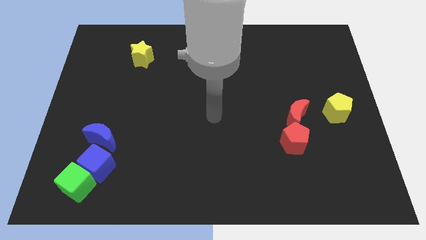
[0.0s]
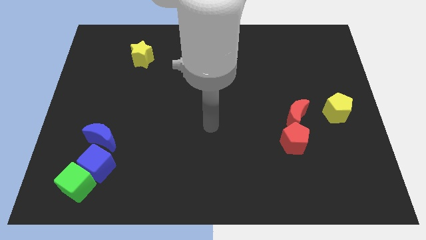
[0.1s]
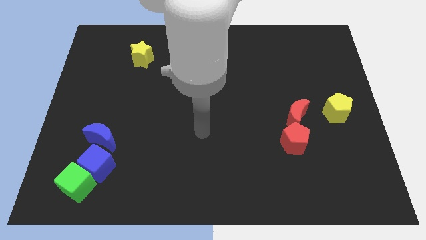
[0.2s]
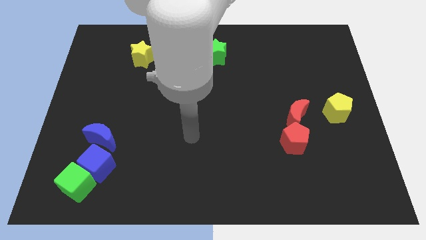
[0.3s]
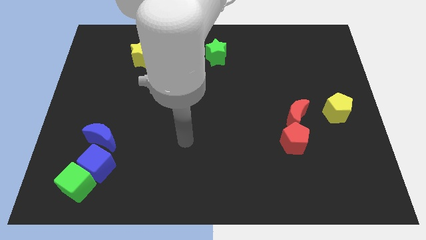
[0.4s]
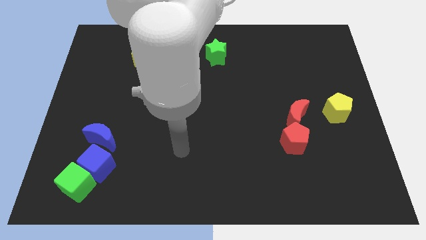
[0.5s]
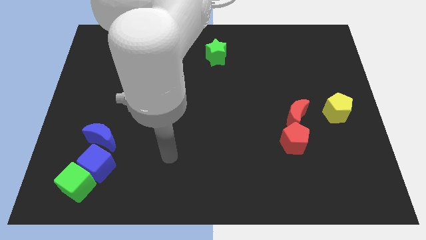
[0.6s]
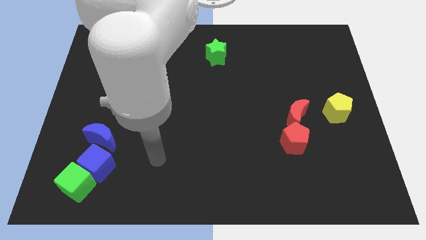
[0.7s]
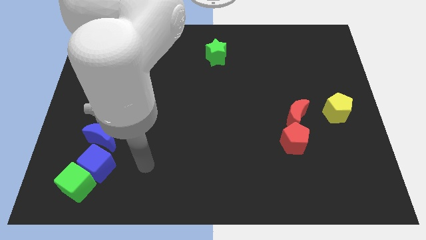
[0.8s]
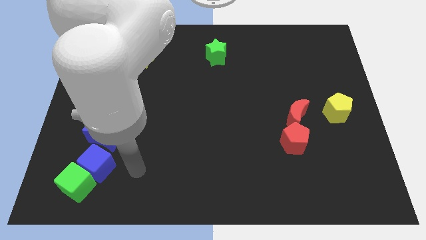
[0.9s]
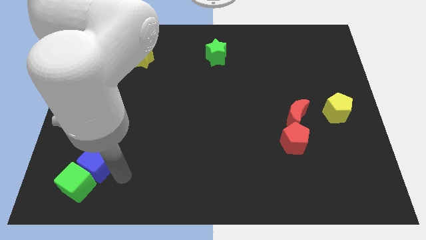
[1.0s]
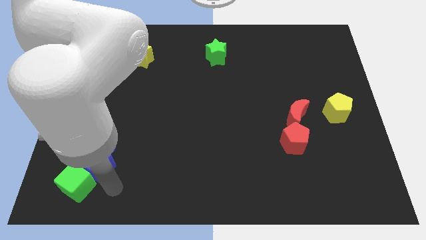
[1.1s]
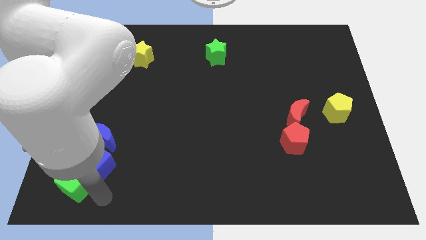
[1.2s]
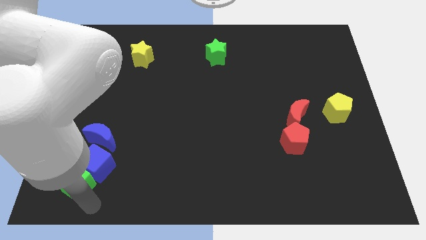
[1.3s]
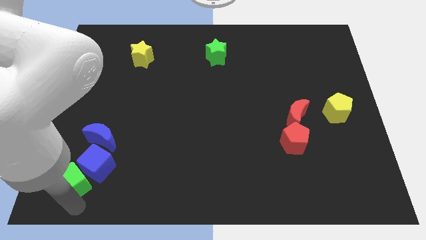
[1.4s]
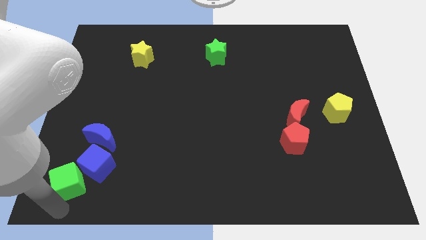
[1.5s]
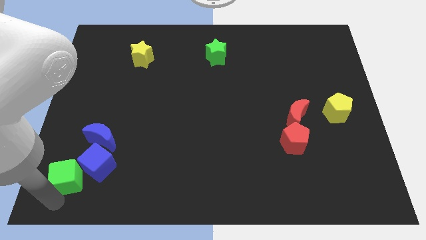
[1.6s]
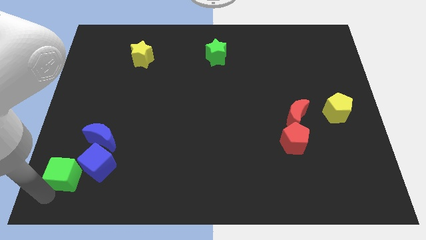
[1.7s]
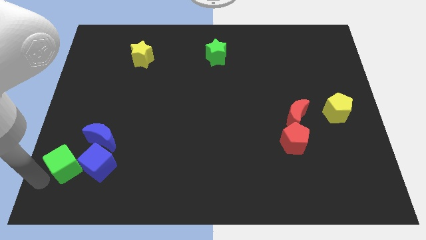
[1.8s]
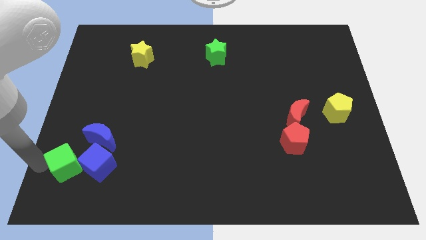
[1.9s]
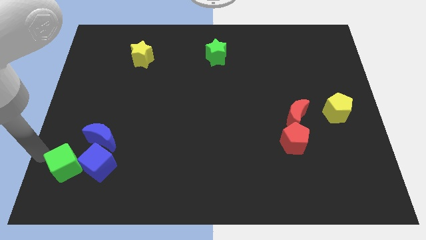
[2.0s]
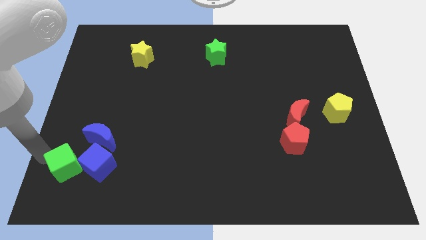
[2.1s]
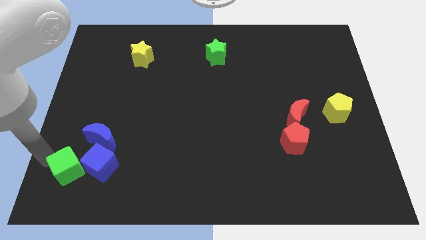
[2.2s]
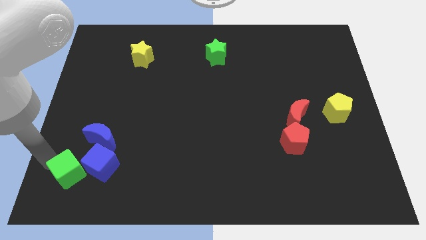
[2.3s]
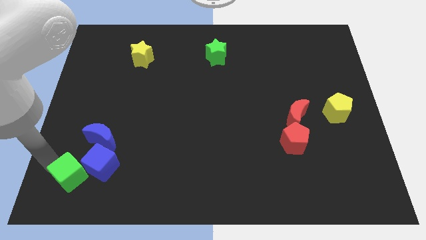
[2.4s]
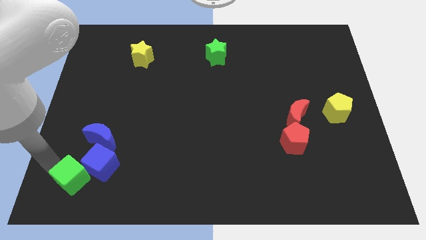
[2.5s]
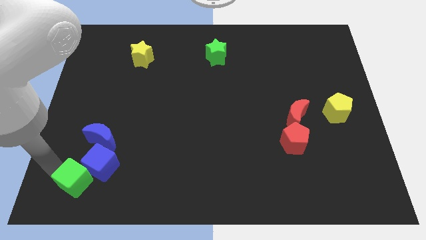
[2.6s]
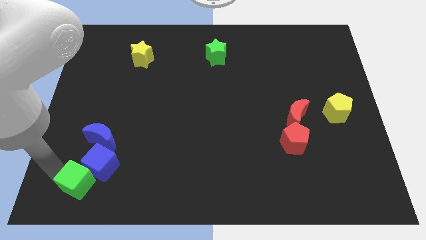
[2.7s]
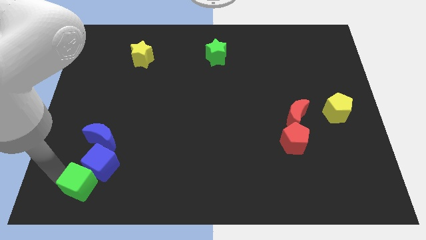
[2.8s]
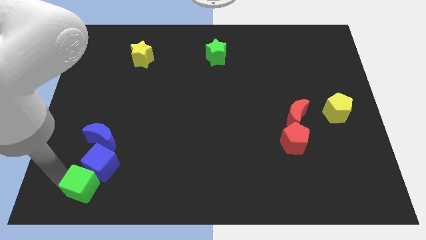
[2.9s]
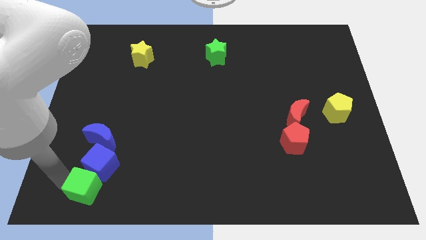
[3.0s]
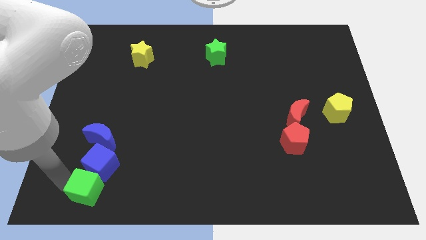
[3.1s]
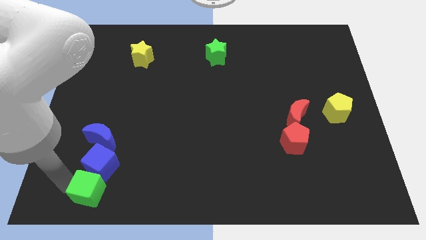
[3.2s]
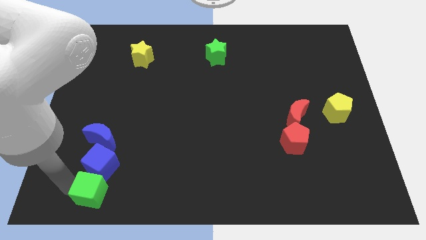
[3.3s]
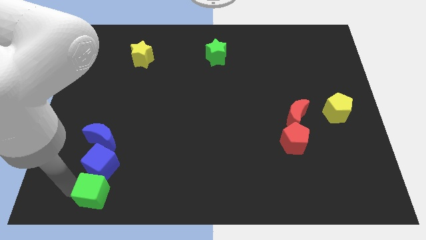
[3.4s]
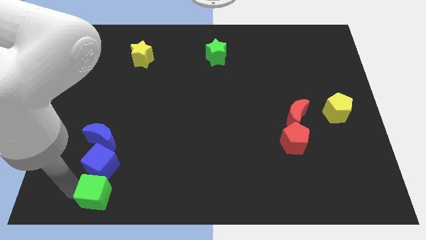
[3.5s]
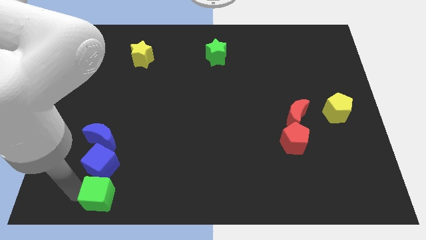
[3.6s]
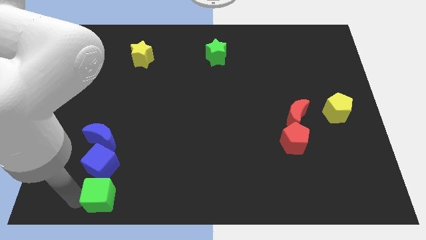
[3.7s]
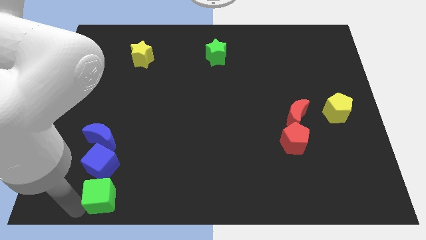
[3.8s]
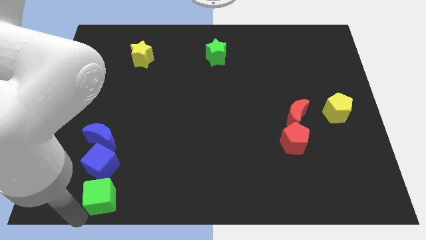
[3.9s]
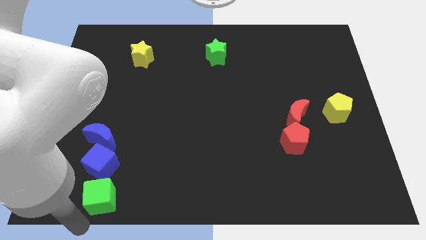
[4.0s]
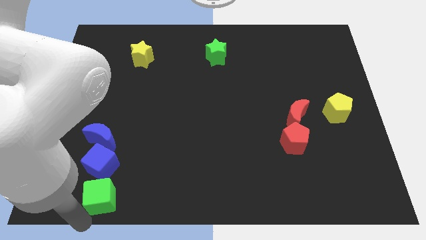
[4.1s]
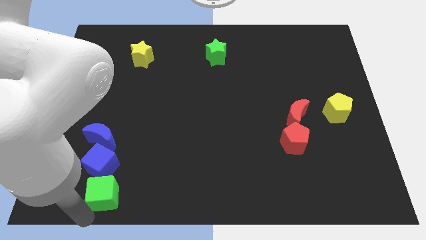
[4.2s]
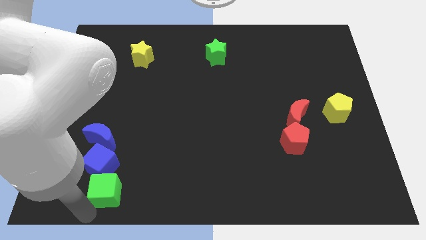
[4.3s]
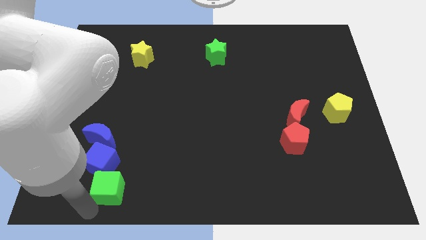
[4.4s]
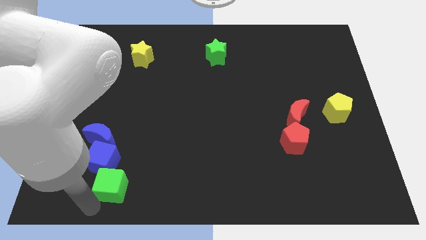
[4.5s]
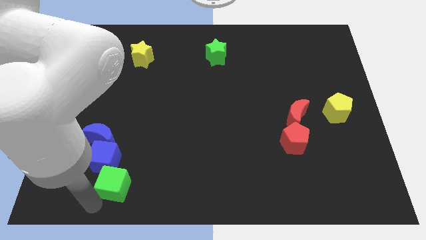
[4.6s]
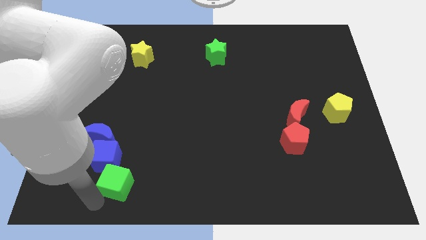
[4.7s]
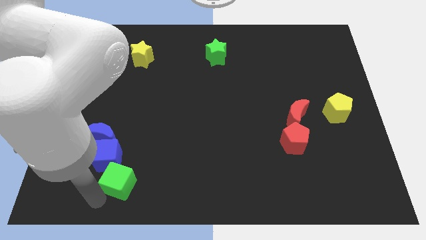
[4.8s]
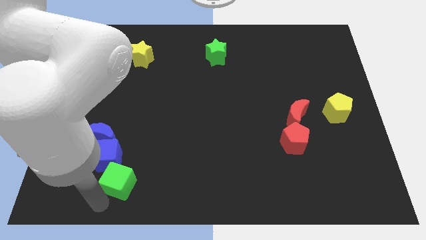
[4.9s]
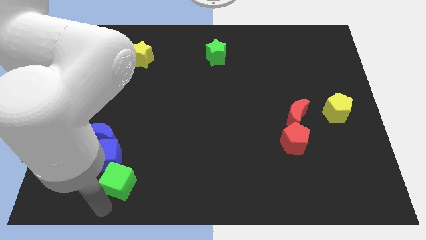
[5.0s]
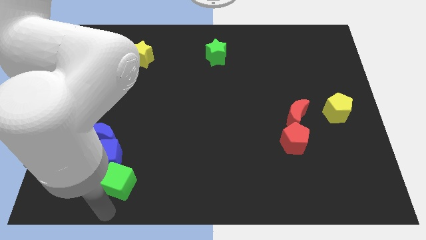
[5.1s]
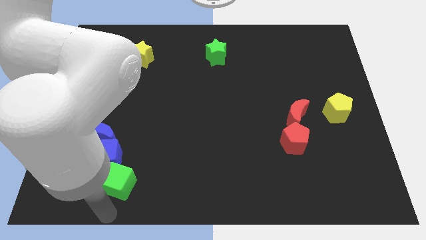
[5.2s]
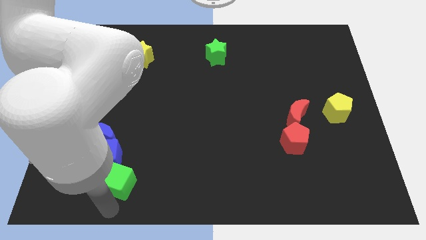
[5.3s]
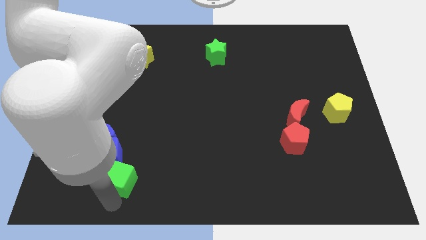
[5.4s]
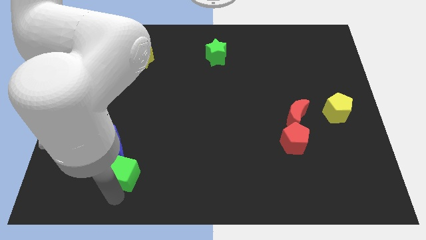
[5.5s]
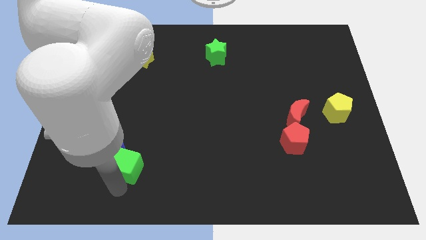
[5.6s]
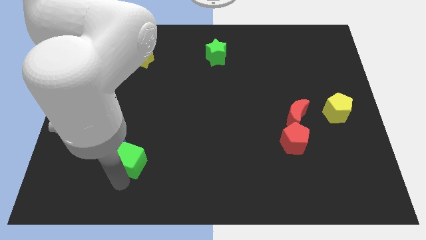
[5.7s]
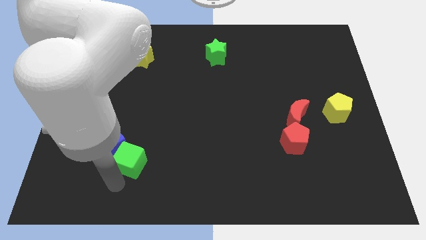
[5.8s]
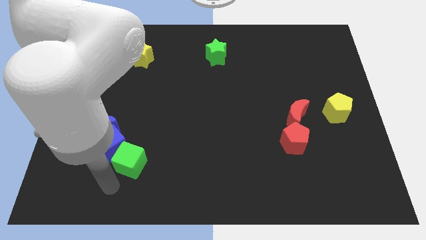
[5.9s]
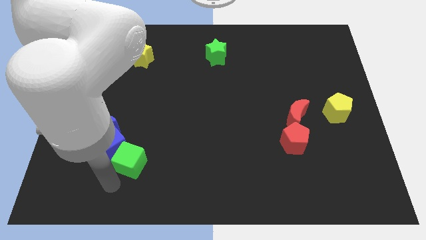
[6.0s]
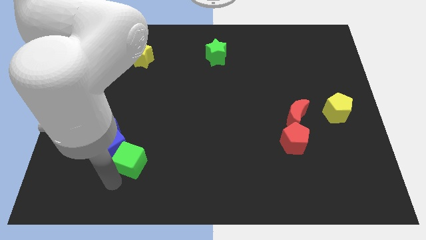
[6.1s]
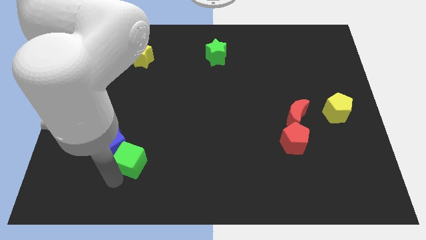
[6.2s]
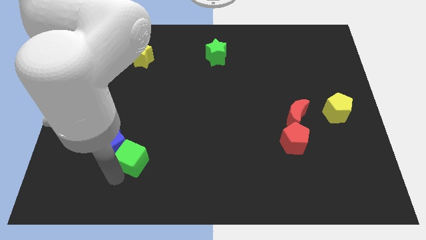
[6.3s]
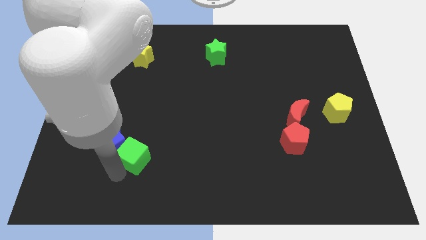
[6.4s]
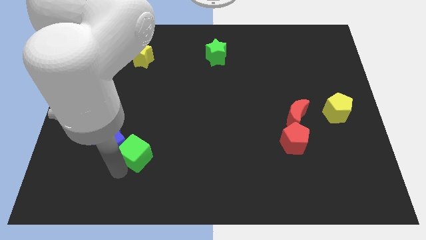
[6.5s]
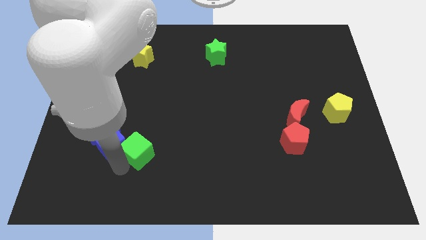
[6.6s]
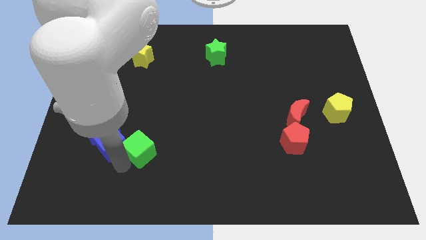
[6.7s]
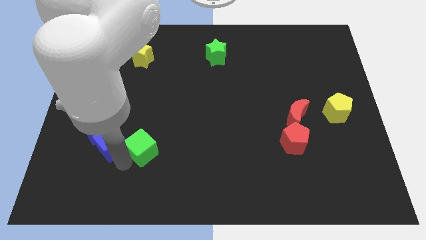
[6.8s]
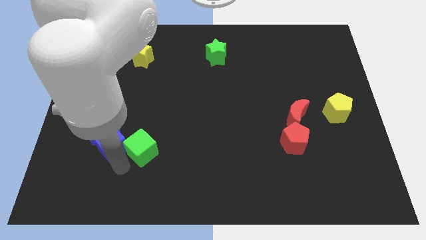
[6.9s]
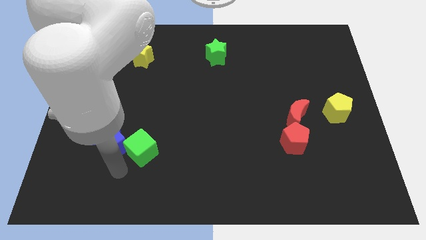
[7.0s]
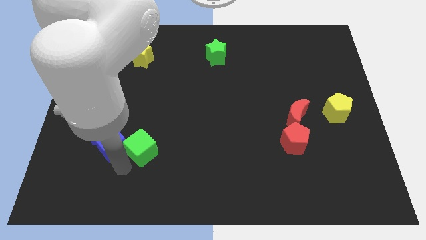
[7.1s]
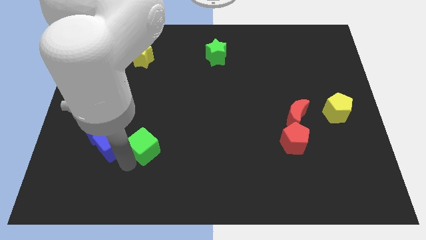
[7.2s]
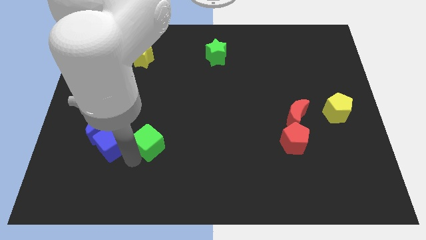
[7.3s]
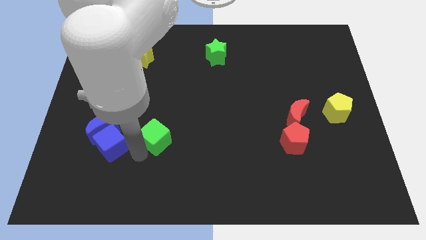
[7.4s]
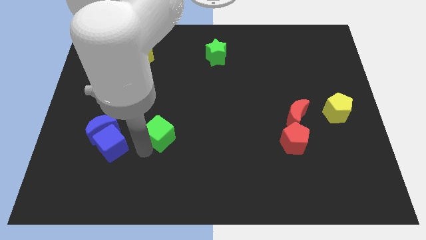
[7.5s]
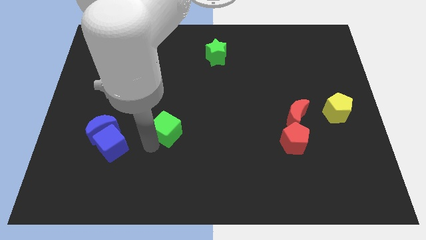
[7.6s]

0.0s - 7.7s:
move the green cube up and right diagonally

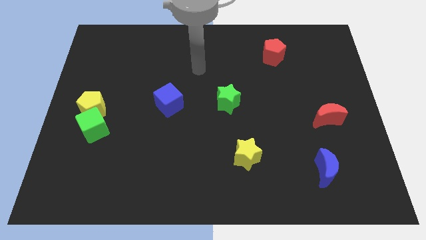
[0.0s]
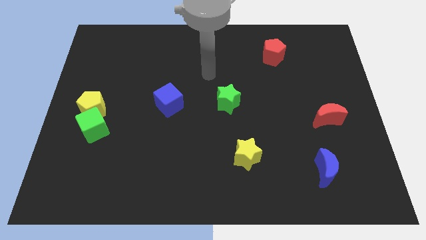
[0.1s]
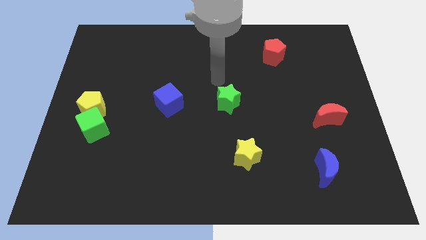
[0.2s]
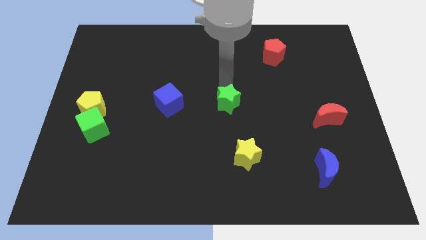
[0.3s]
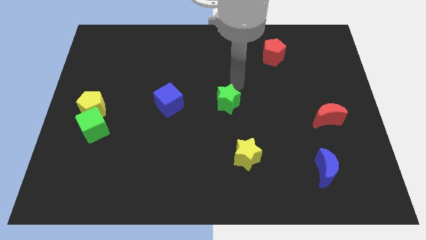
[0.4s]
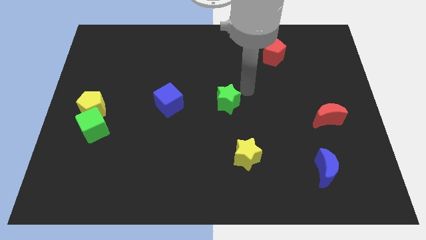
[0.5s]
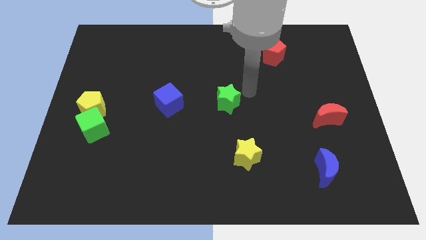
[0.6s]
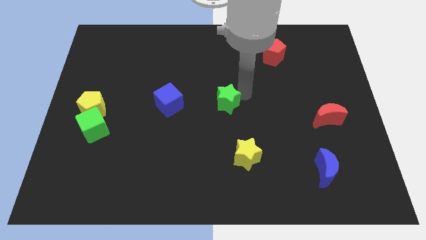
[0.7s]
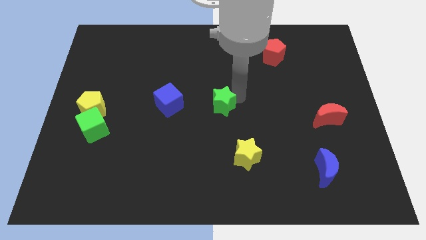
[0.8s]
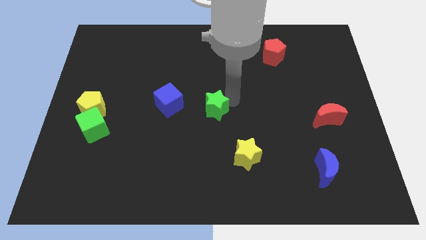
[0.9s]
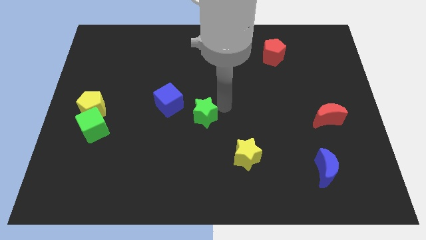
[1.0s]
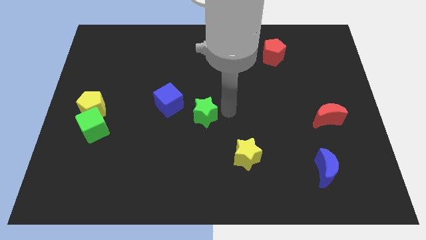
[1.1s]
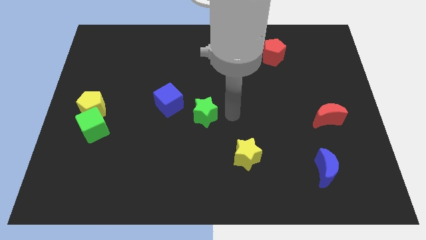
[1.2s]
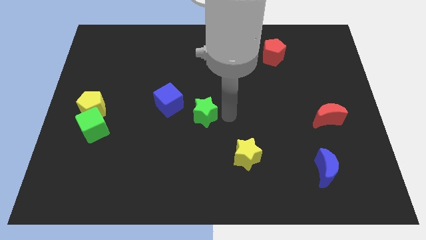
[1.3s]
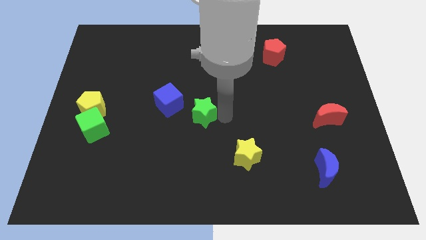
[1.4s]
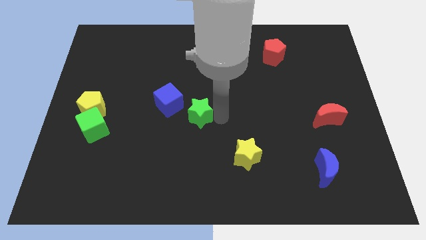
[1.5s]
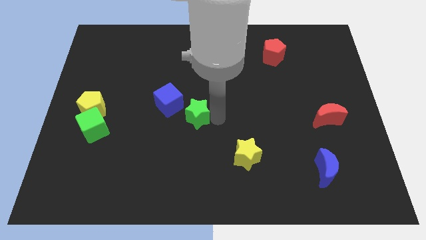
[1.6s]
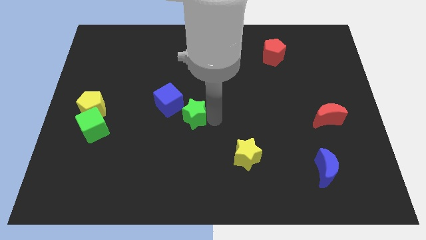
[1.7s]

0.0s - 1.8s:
push the green star slightly to the left
